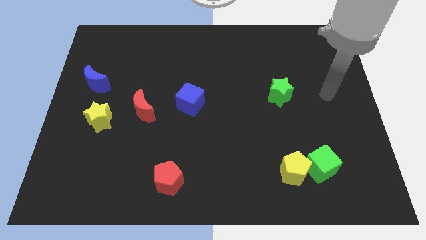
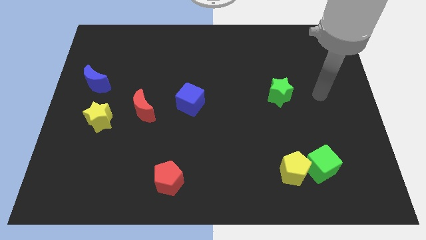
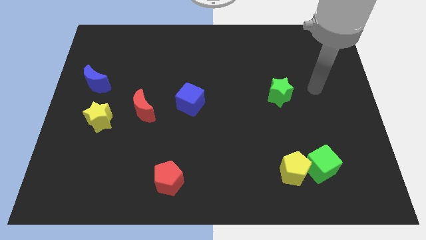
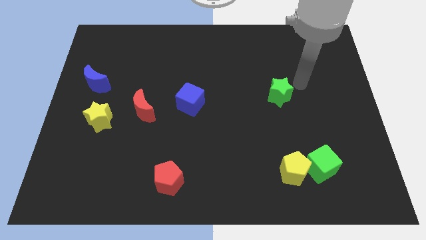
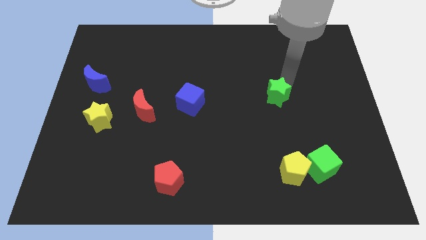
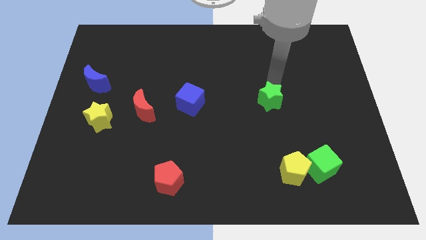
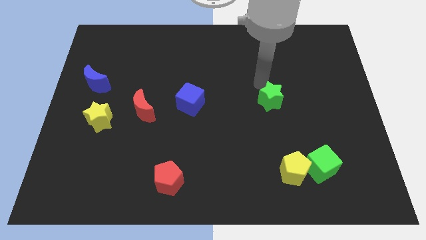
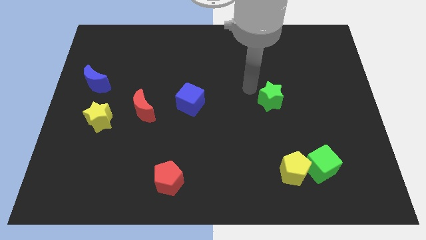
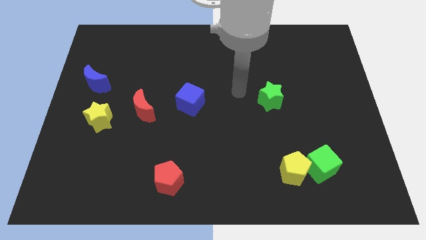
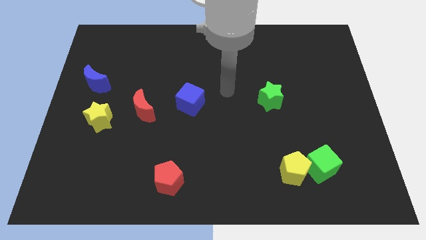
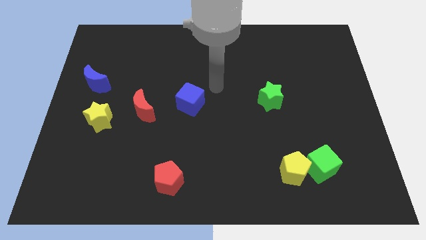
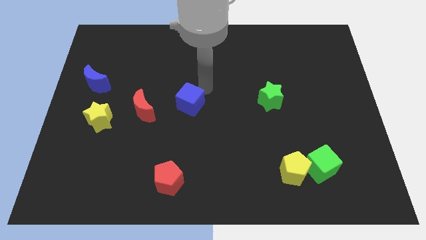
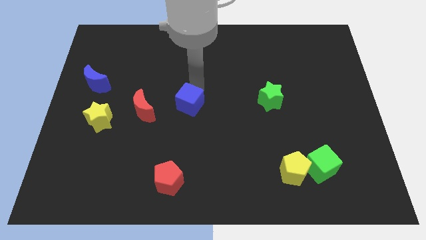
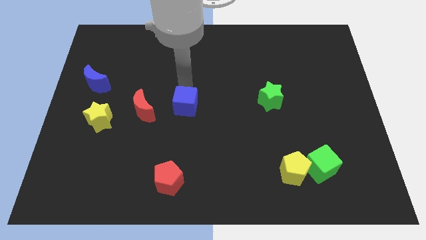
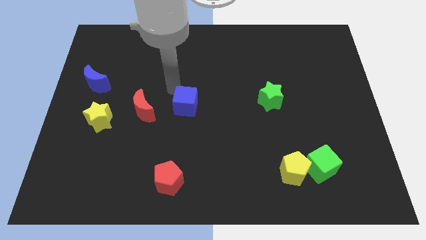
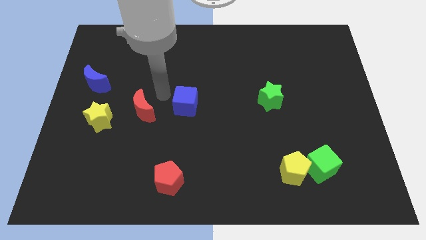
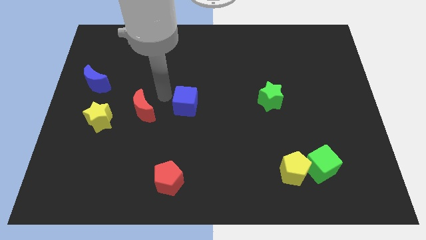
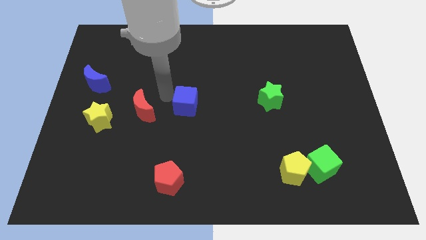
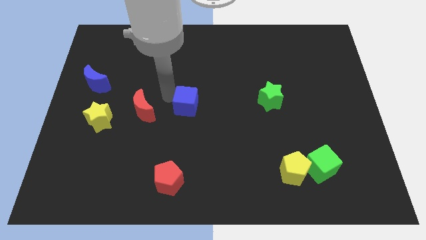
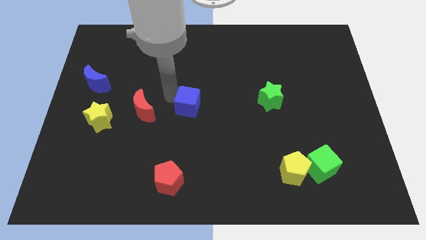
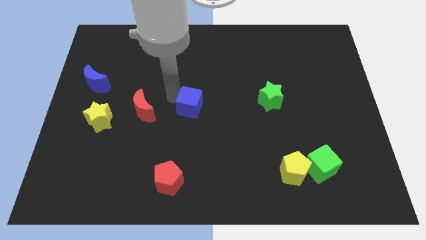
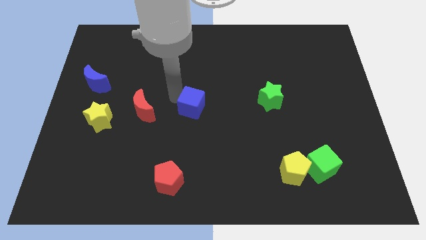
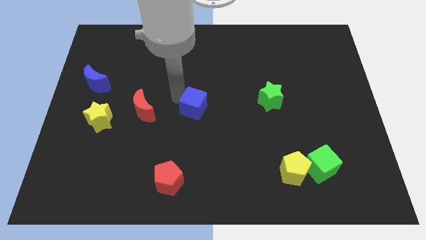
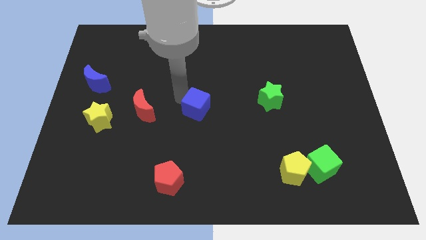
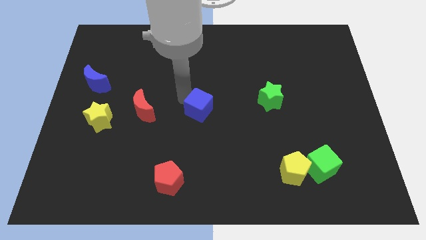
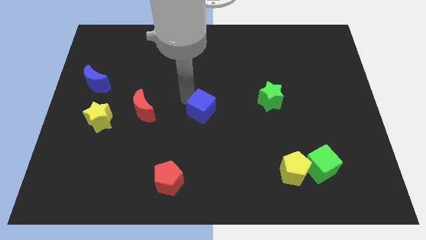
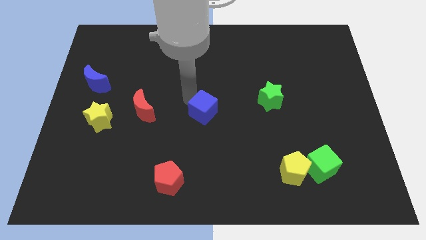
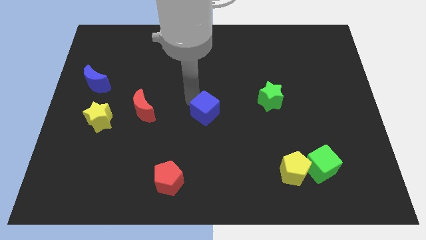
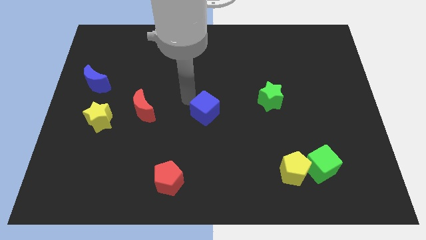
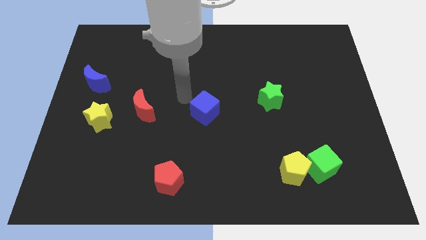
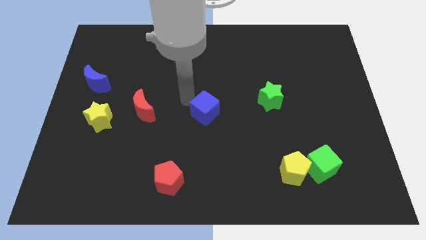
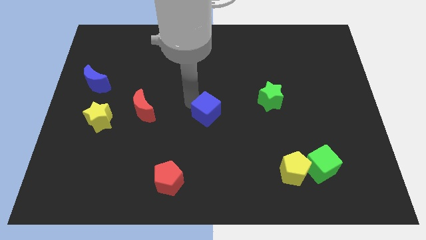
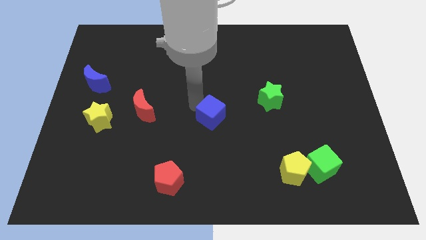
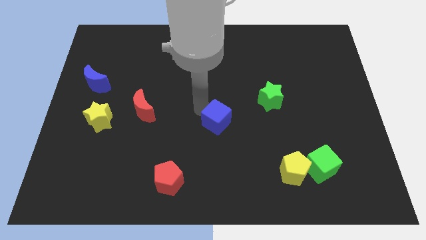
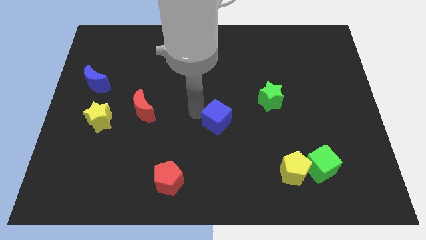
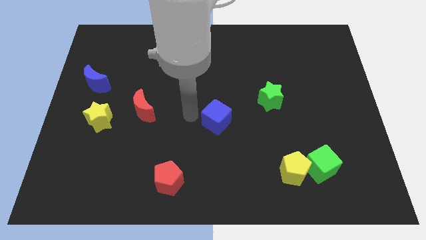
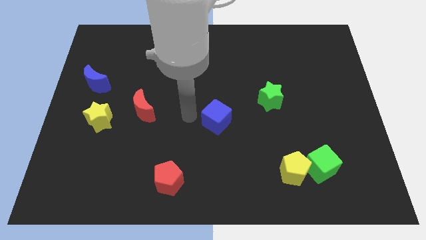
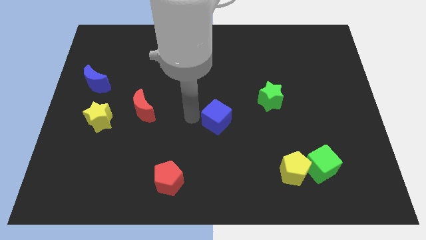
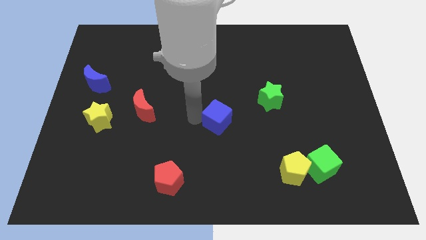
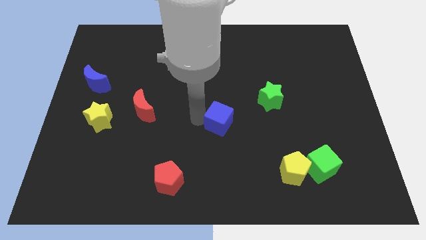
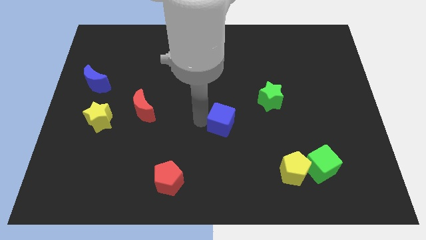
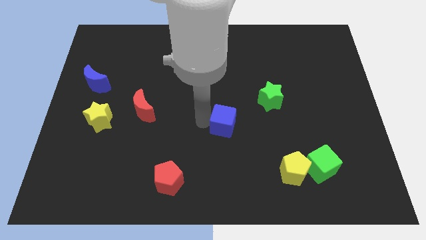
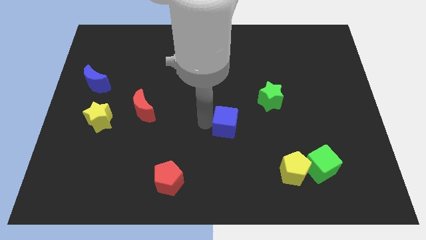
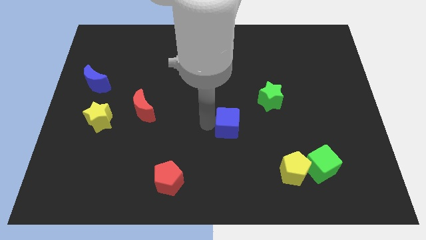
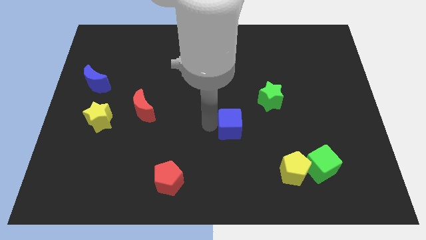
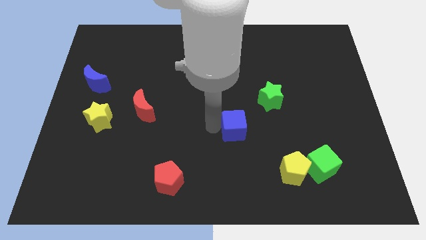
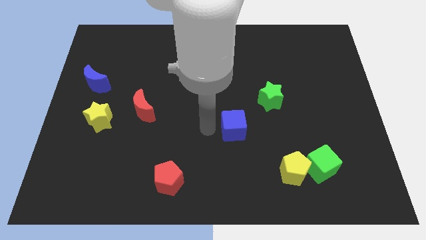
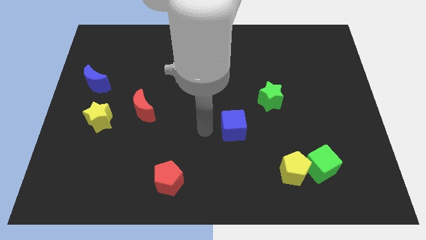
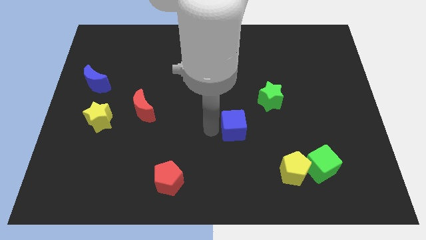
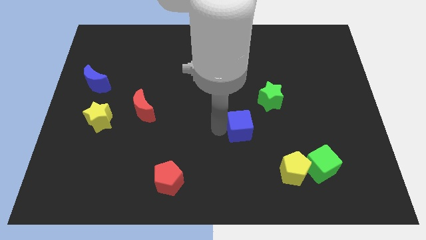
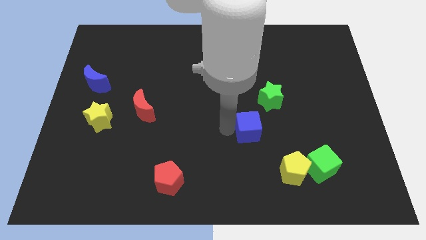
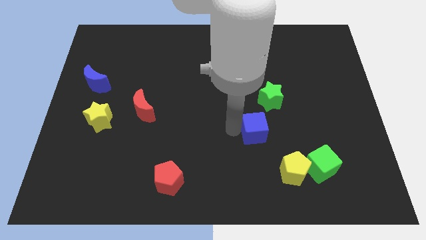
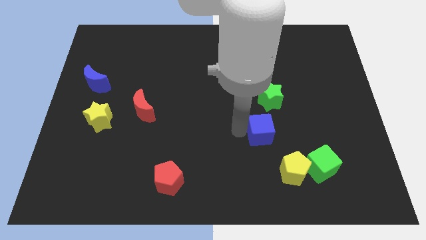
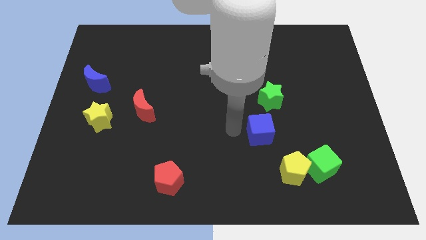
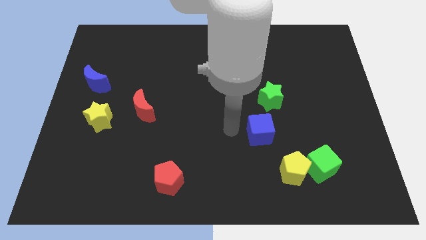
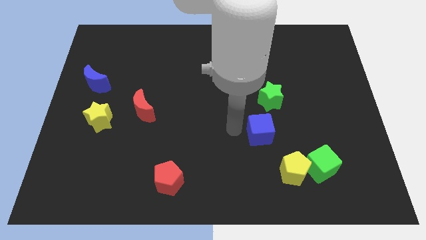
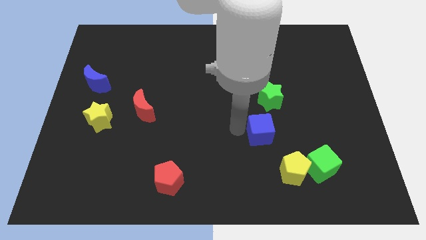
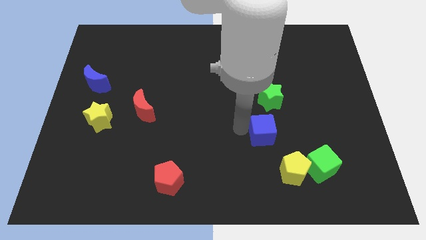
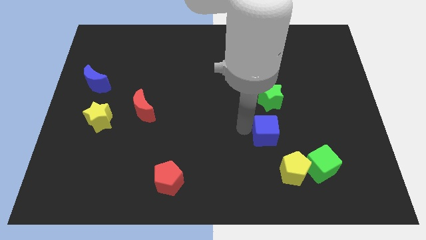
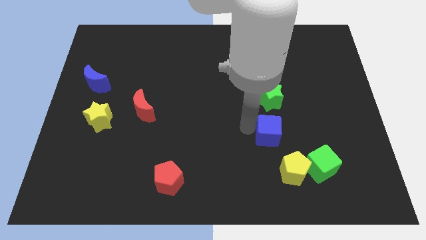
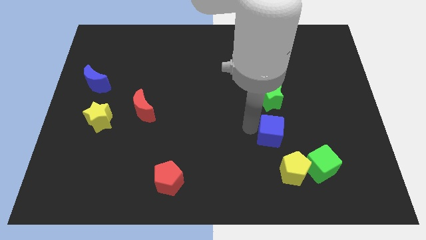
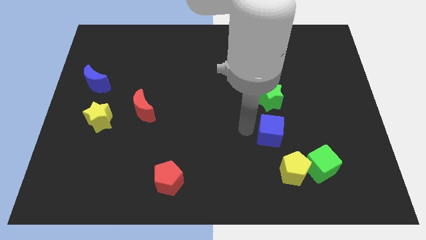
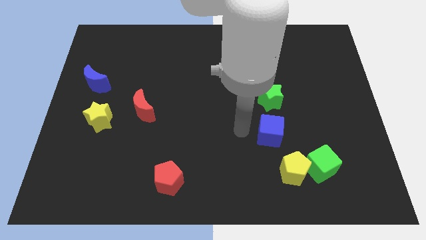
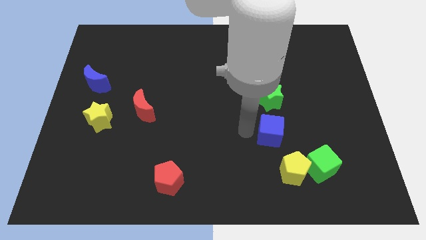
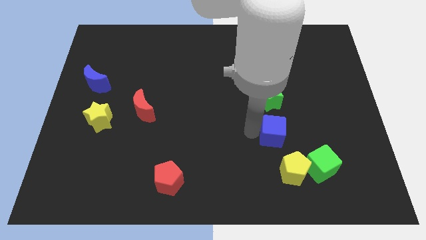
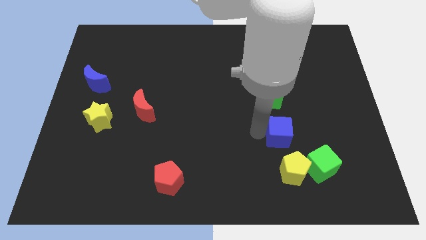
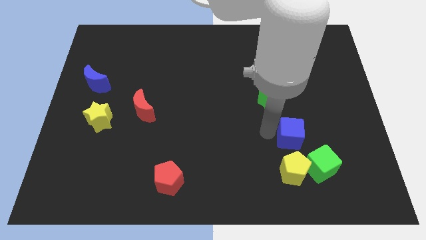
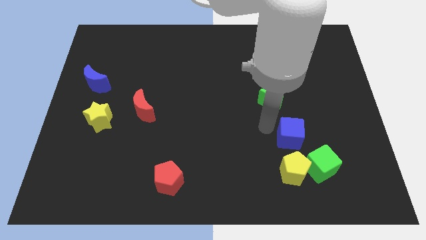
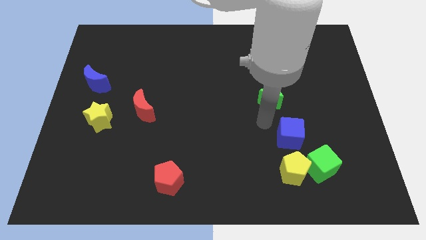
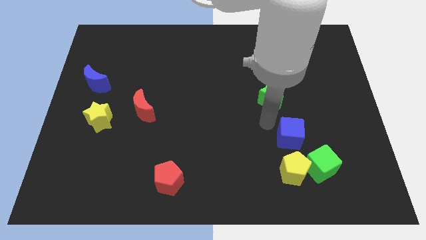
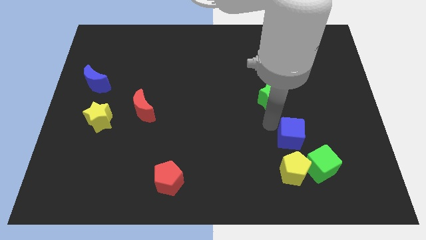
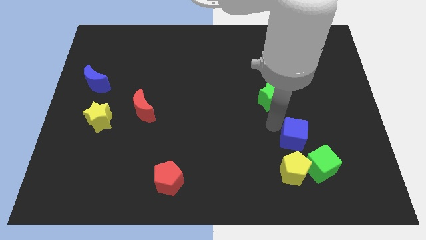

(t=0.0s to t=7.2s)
push the blue cube diagonally up and to the right of the yellow pentagon
